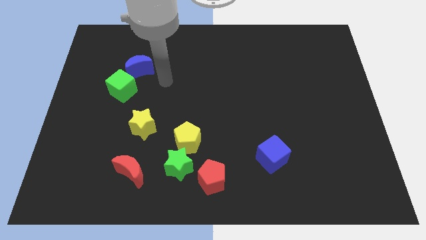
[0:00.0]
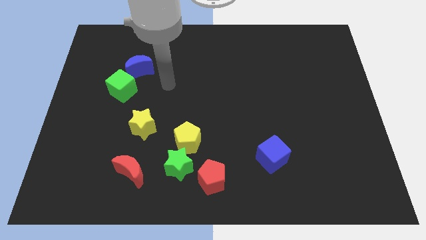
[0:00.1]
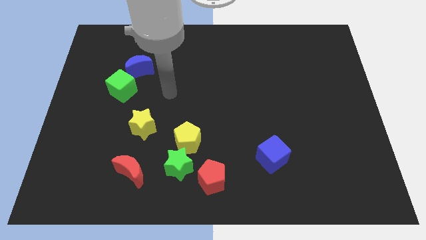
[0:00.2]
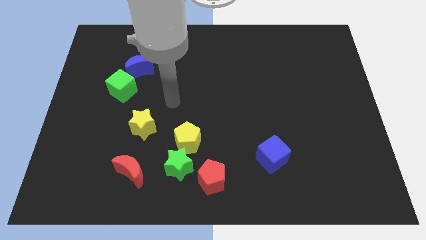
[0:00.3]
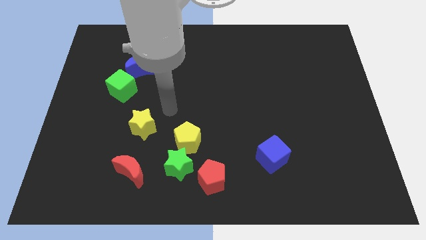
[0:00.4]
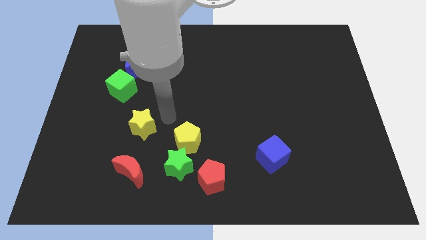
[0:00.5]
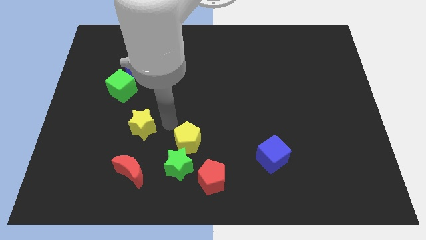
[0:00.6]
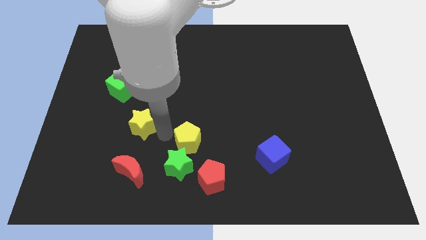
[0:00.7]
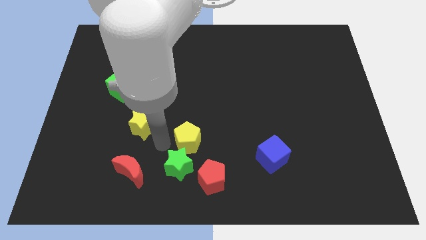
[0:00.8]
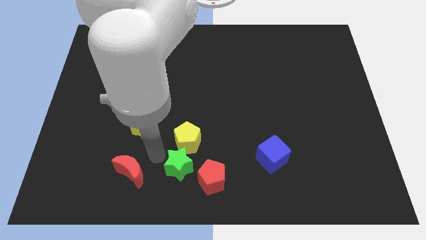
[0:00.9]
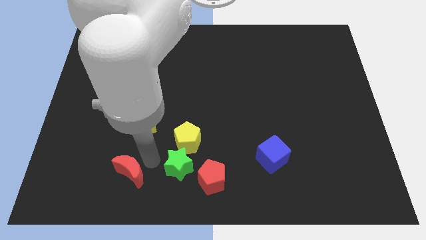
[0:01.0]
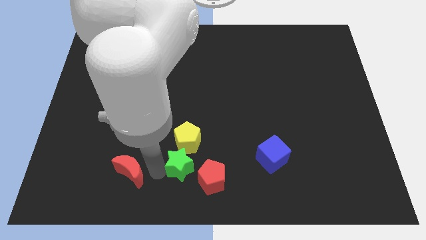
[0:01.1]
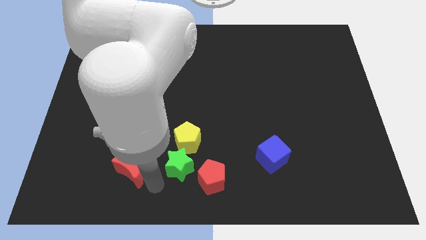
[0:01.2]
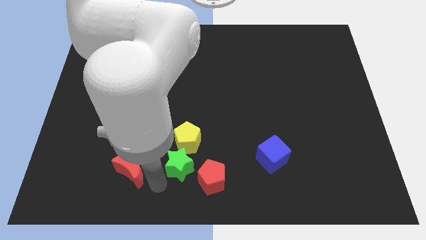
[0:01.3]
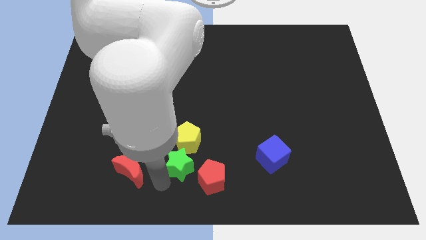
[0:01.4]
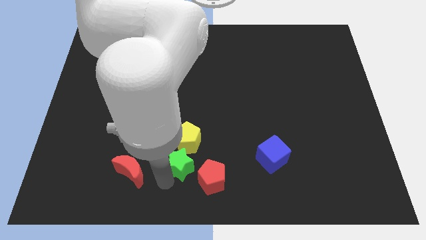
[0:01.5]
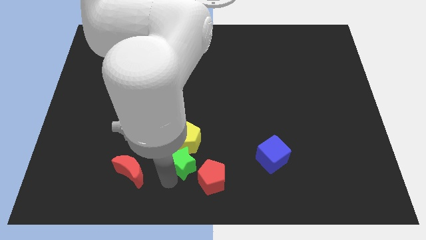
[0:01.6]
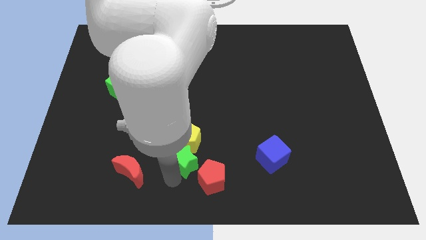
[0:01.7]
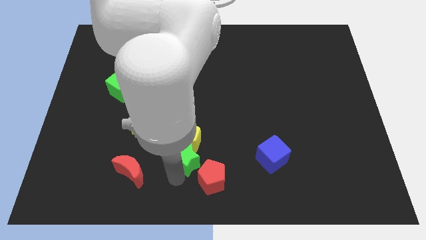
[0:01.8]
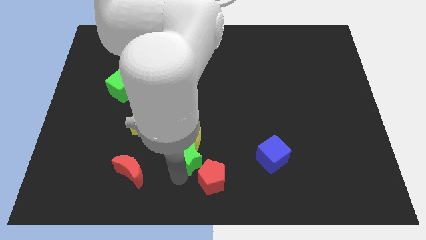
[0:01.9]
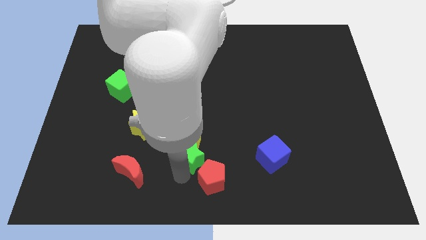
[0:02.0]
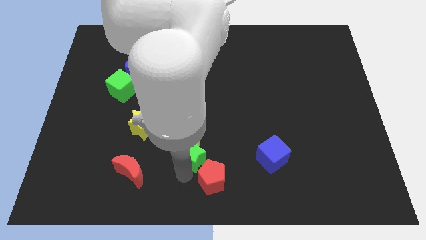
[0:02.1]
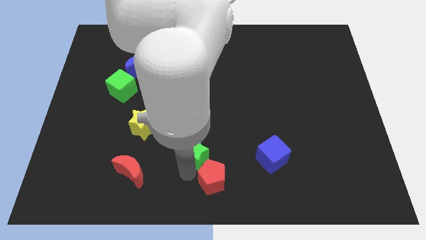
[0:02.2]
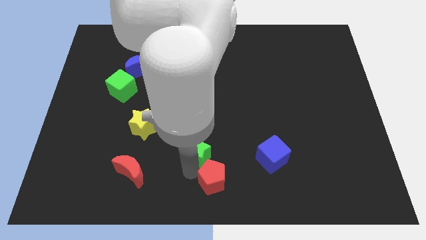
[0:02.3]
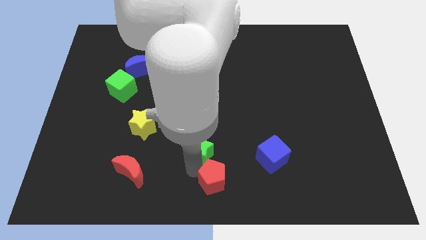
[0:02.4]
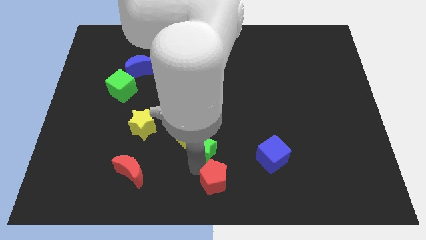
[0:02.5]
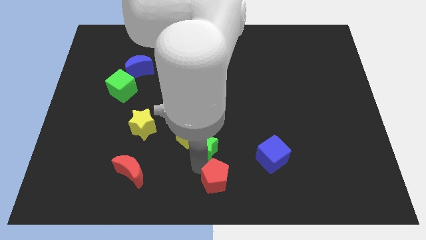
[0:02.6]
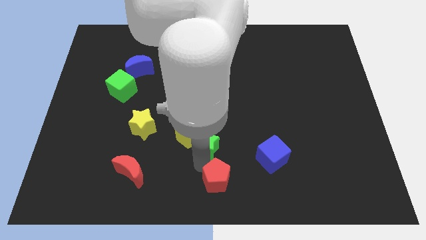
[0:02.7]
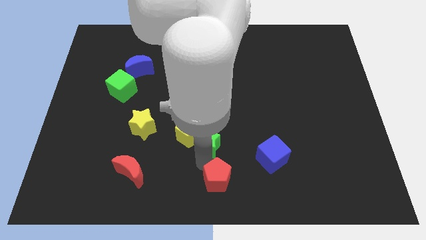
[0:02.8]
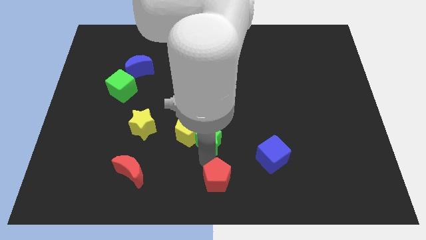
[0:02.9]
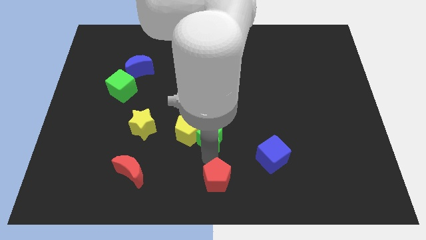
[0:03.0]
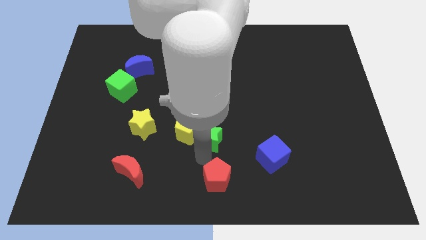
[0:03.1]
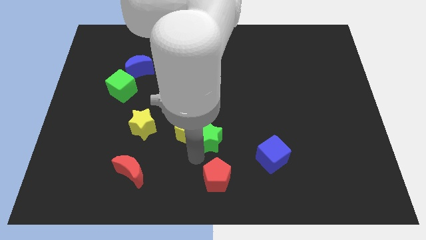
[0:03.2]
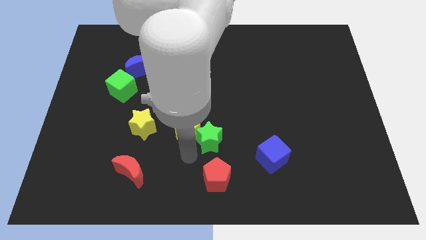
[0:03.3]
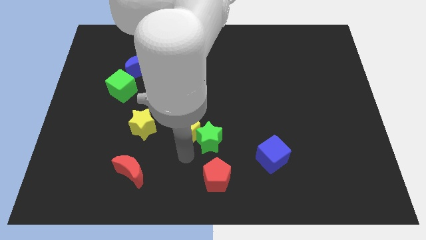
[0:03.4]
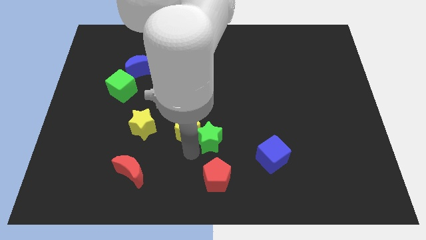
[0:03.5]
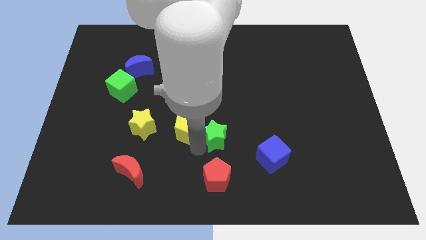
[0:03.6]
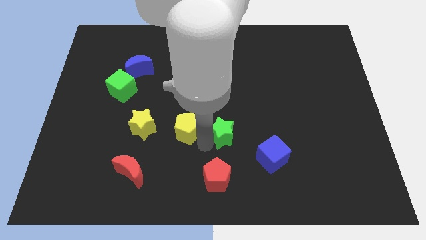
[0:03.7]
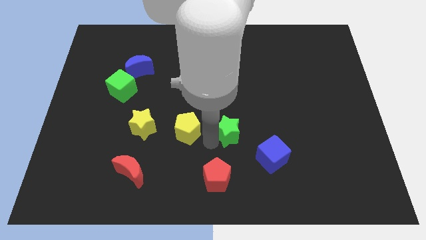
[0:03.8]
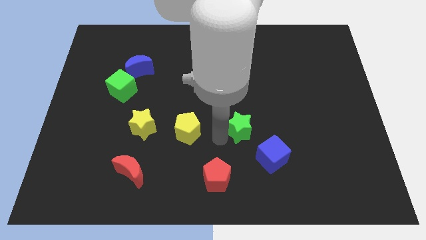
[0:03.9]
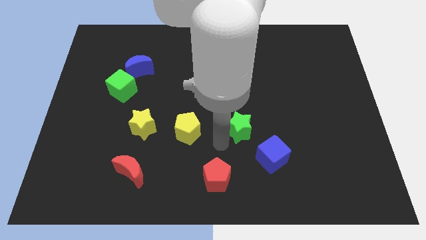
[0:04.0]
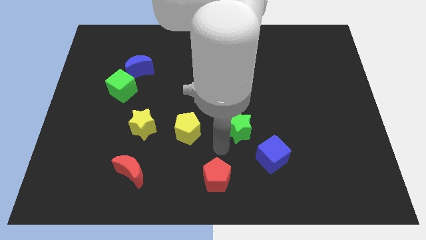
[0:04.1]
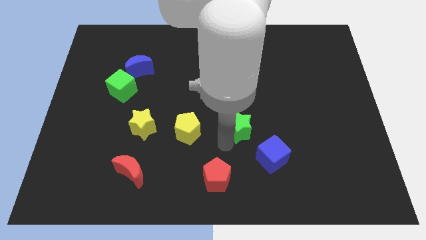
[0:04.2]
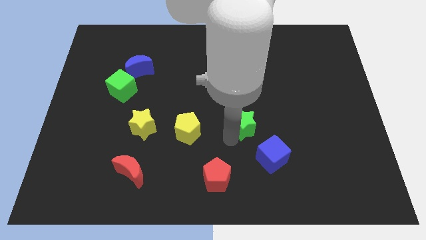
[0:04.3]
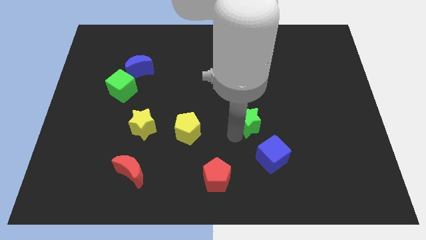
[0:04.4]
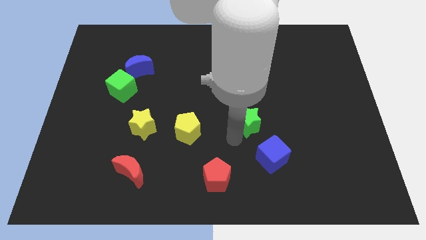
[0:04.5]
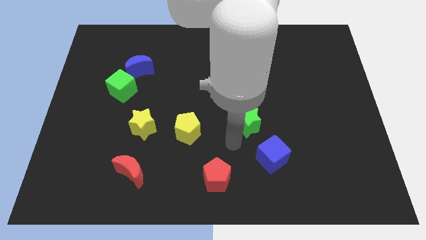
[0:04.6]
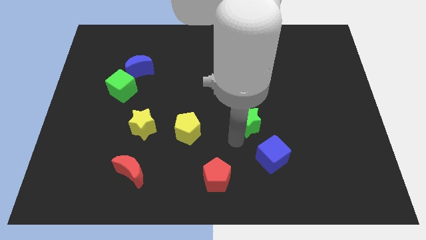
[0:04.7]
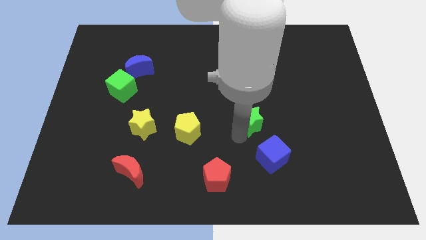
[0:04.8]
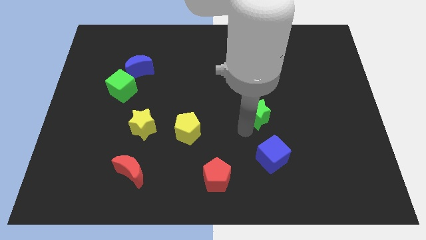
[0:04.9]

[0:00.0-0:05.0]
push the green star upwards and right diagonally

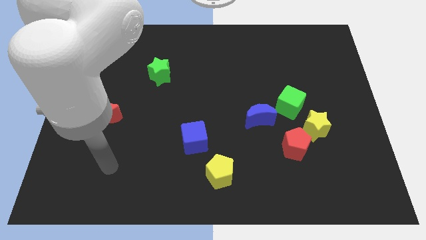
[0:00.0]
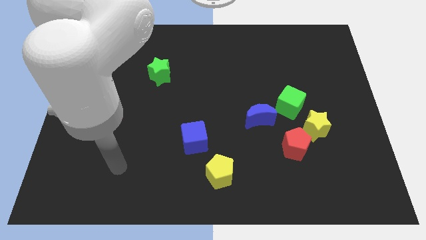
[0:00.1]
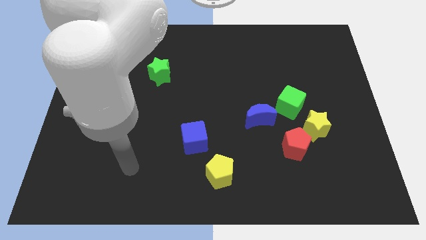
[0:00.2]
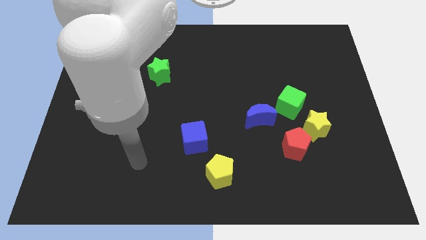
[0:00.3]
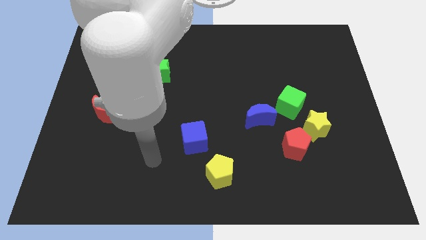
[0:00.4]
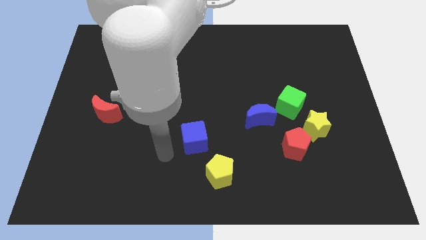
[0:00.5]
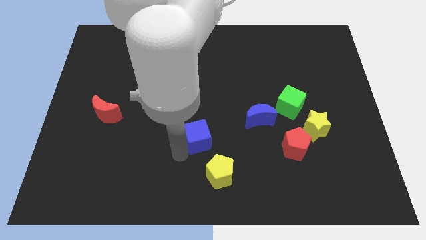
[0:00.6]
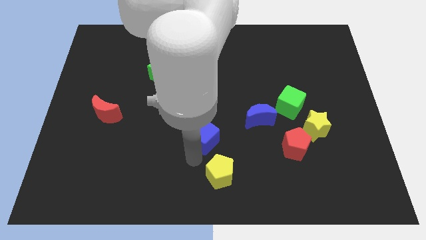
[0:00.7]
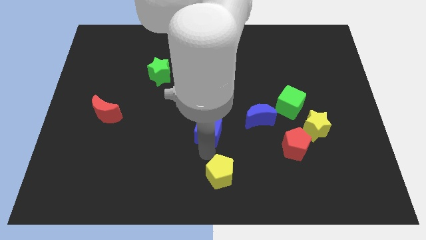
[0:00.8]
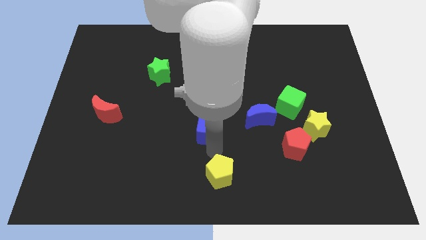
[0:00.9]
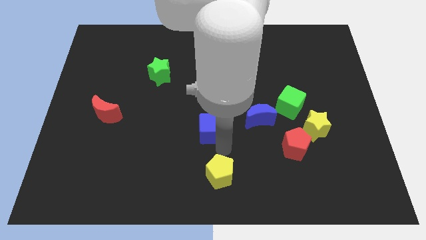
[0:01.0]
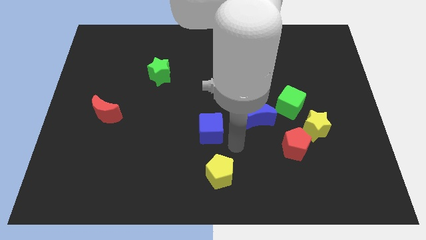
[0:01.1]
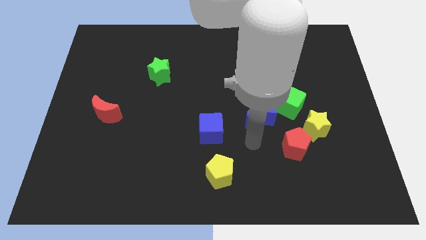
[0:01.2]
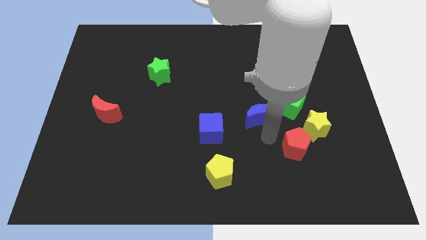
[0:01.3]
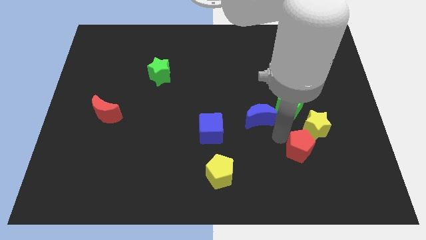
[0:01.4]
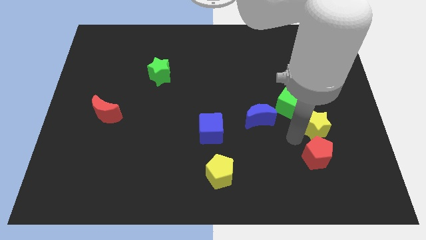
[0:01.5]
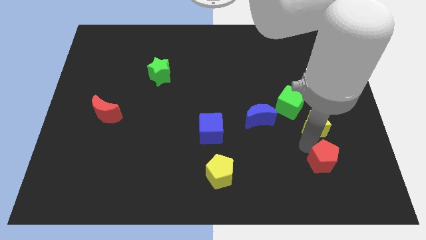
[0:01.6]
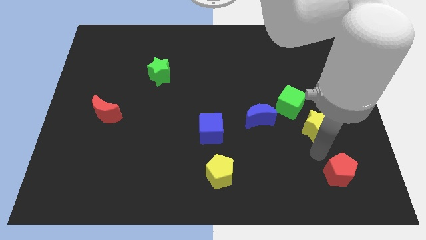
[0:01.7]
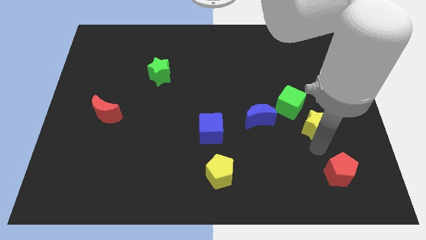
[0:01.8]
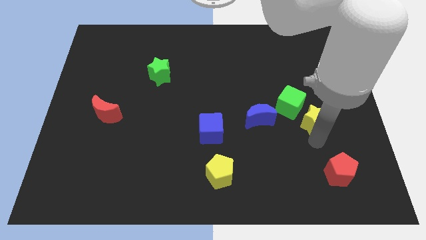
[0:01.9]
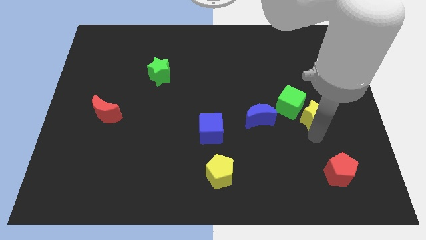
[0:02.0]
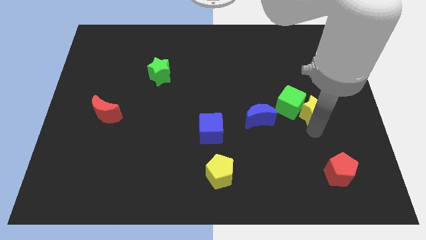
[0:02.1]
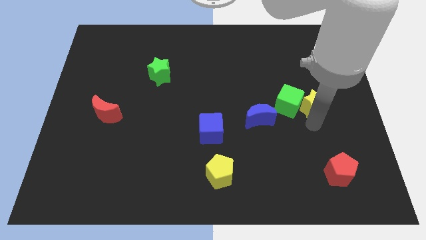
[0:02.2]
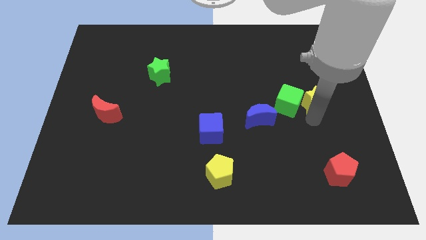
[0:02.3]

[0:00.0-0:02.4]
push the yellow star up a little bit

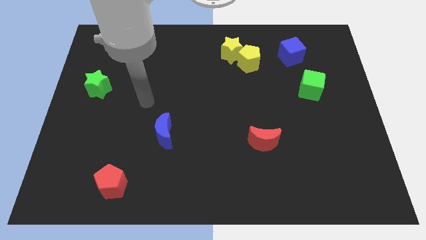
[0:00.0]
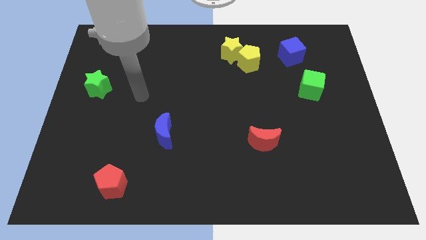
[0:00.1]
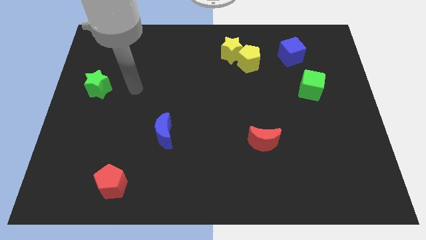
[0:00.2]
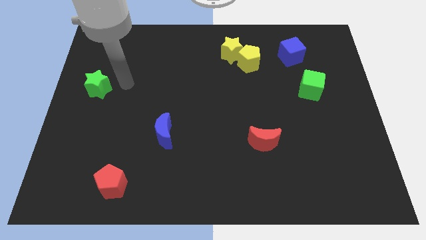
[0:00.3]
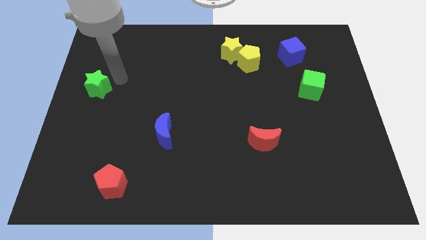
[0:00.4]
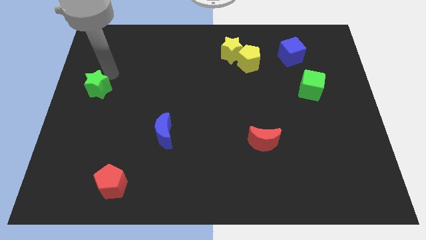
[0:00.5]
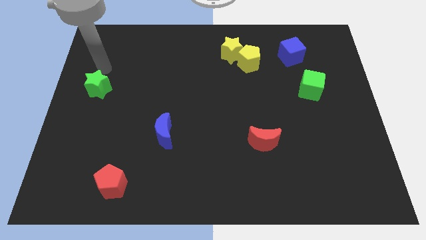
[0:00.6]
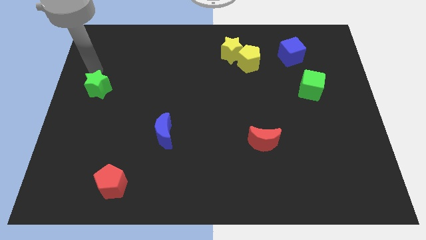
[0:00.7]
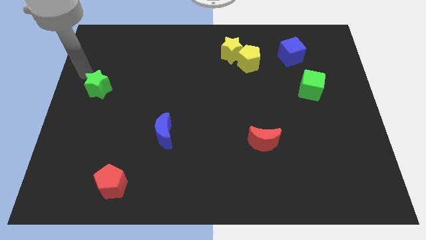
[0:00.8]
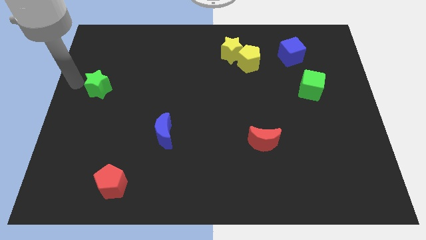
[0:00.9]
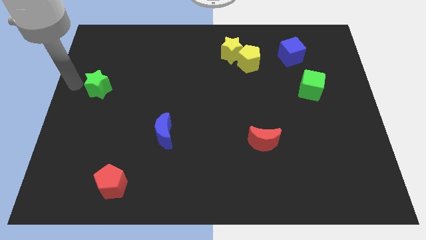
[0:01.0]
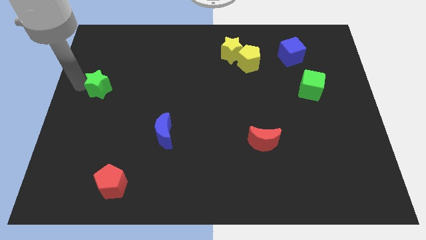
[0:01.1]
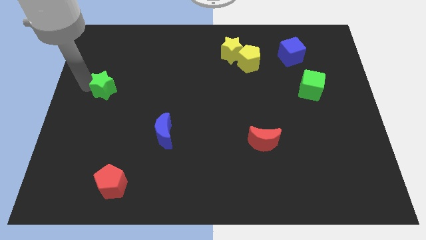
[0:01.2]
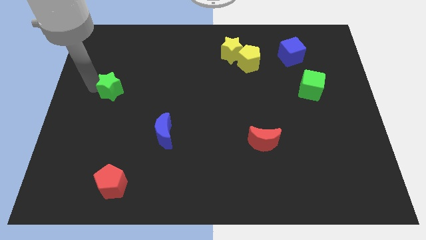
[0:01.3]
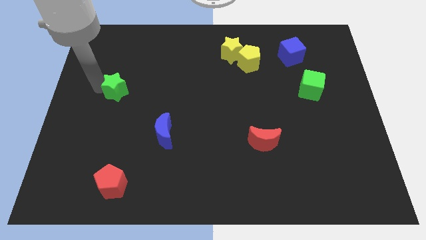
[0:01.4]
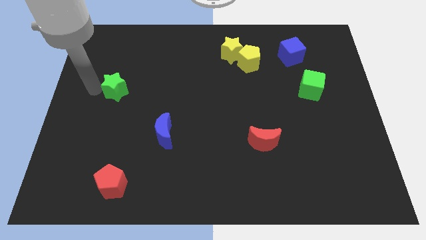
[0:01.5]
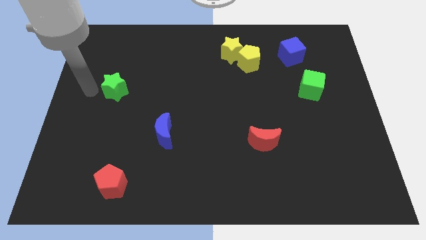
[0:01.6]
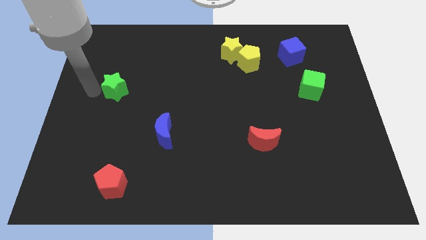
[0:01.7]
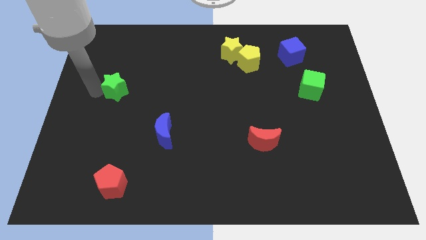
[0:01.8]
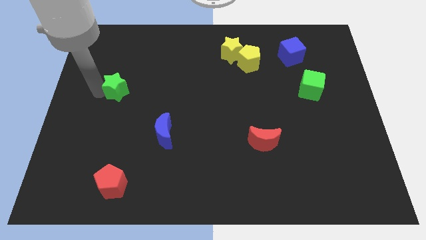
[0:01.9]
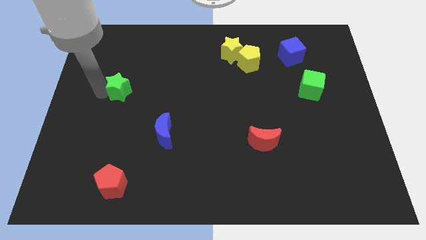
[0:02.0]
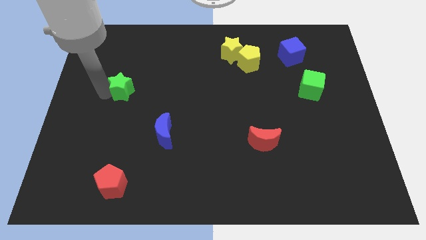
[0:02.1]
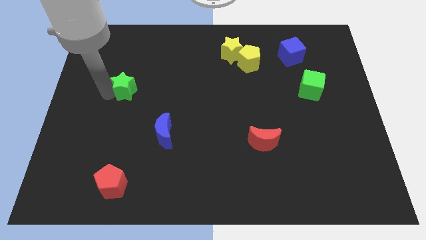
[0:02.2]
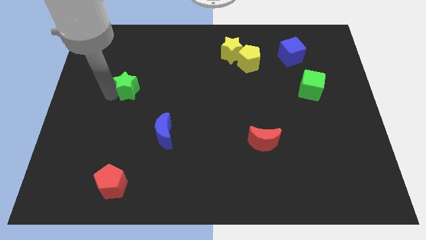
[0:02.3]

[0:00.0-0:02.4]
slightly move the green star right
